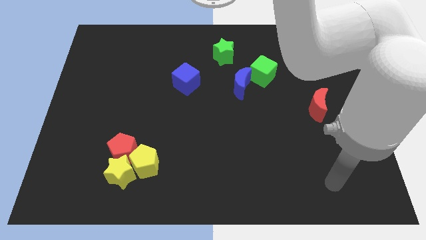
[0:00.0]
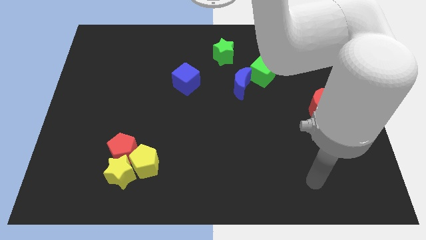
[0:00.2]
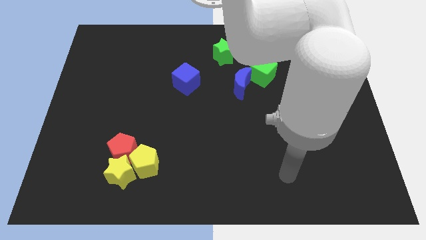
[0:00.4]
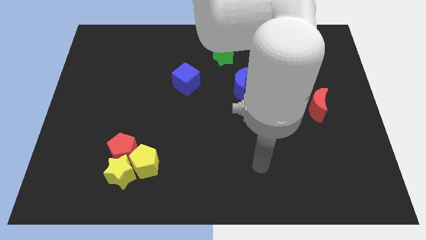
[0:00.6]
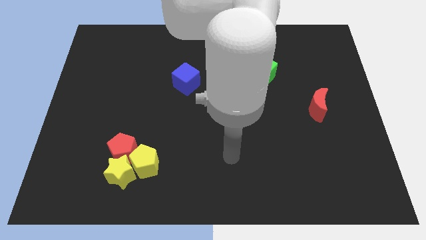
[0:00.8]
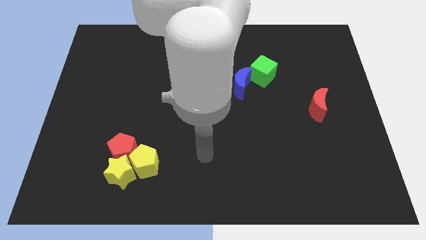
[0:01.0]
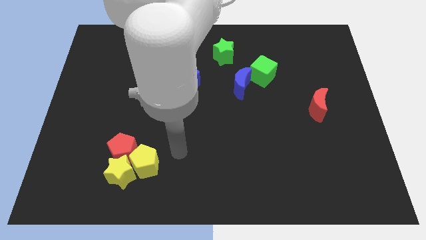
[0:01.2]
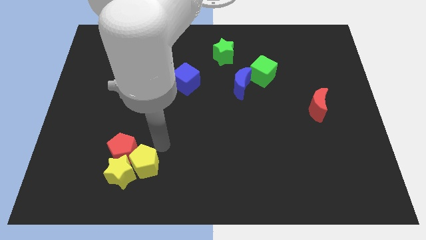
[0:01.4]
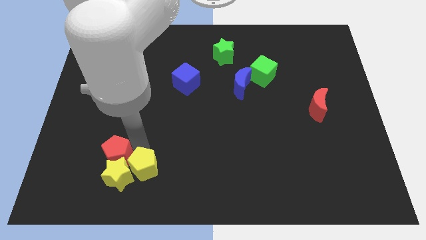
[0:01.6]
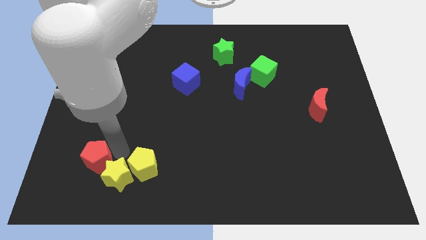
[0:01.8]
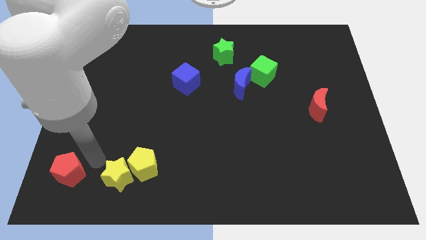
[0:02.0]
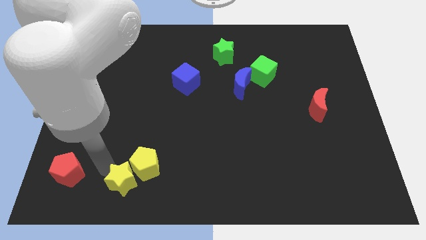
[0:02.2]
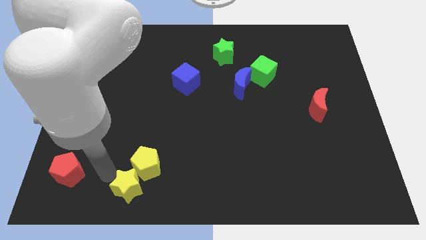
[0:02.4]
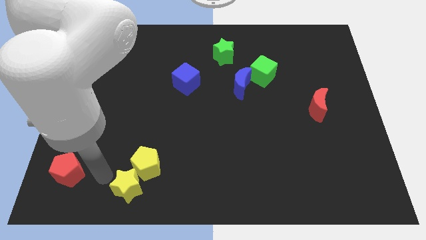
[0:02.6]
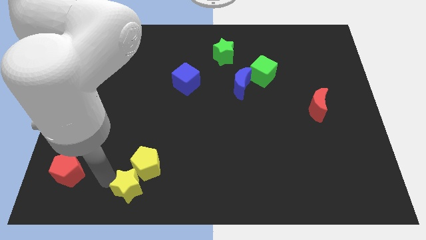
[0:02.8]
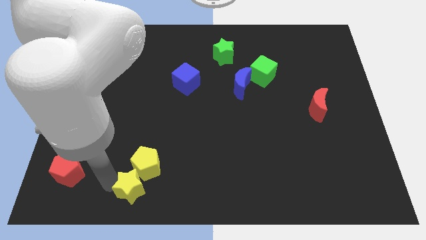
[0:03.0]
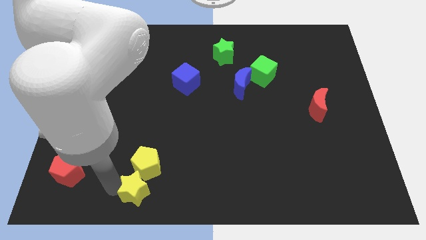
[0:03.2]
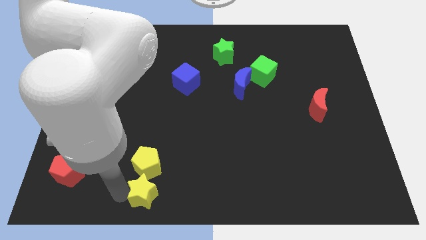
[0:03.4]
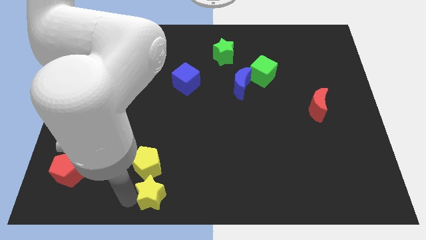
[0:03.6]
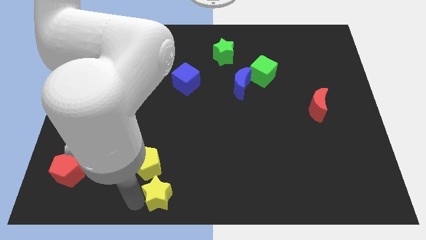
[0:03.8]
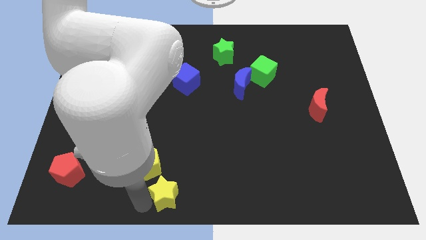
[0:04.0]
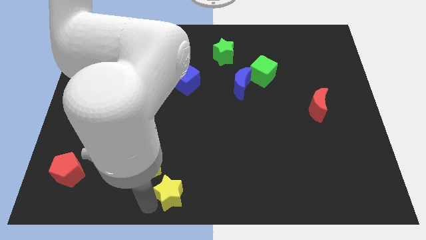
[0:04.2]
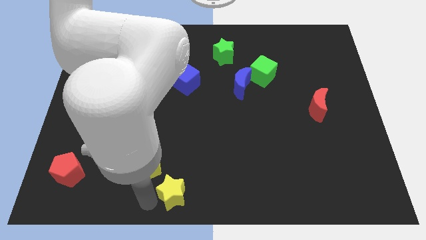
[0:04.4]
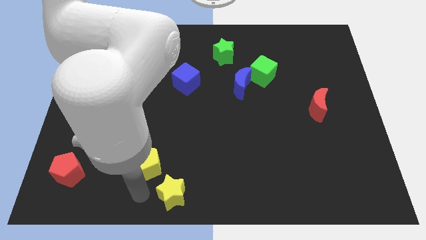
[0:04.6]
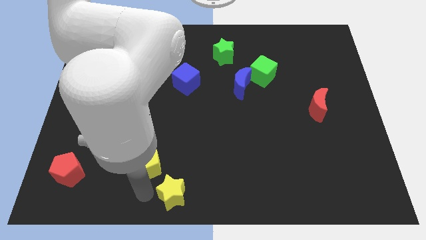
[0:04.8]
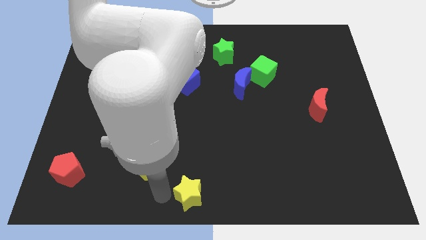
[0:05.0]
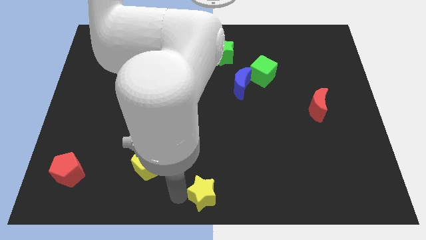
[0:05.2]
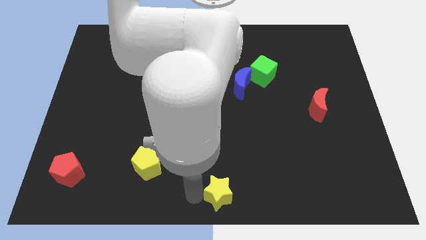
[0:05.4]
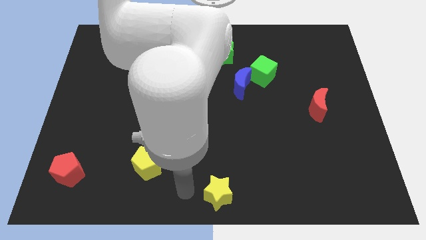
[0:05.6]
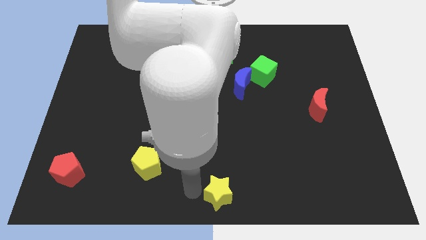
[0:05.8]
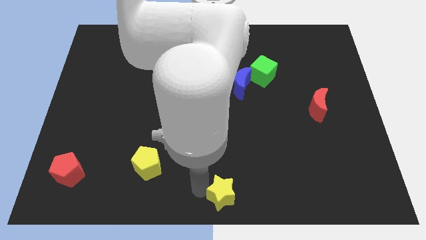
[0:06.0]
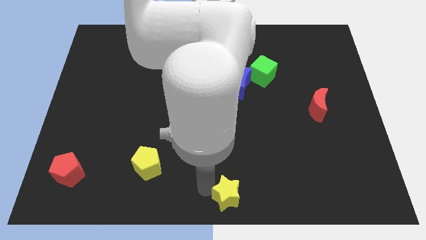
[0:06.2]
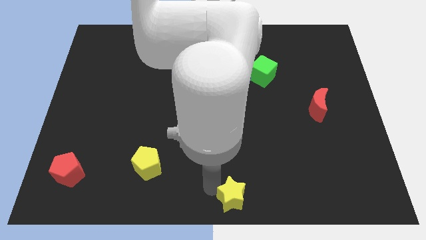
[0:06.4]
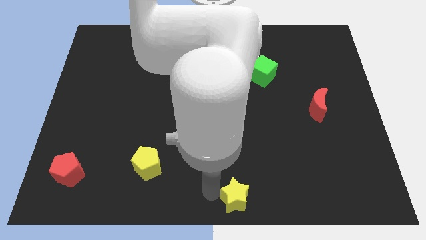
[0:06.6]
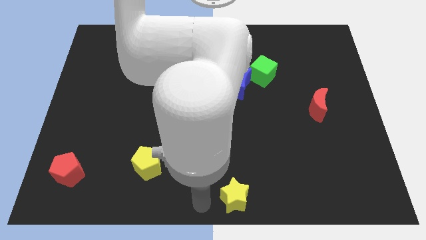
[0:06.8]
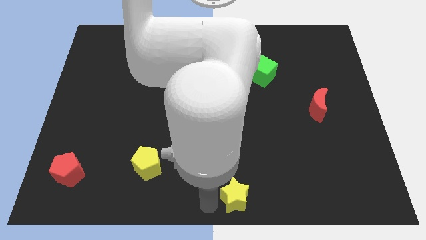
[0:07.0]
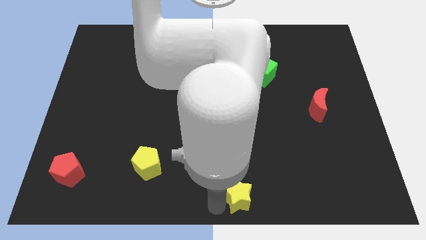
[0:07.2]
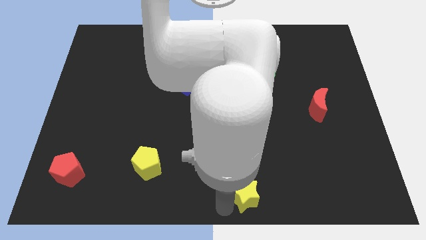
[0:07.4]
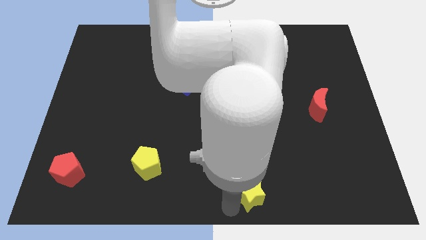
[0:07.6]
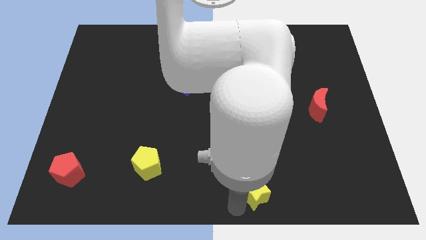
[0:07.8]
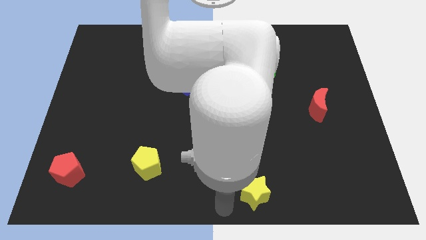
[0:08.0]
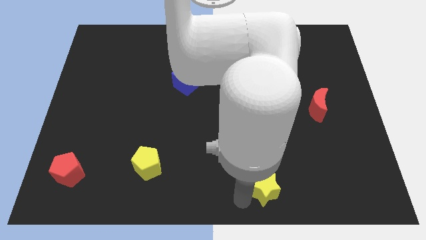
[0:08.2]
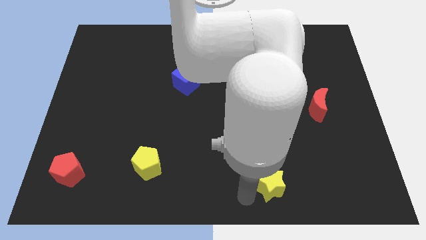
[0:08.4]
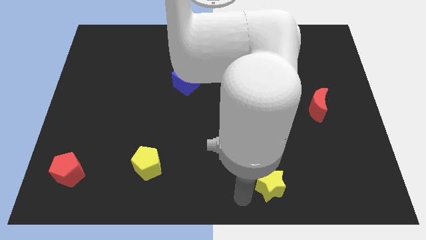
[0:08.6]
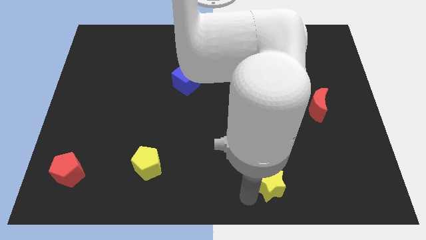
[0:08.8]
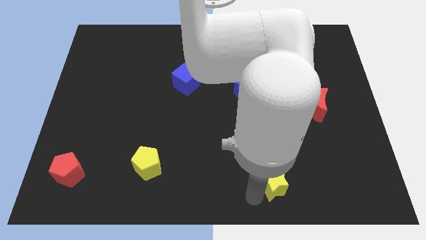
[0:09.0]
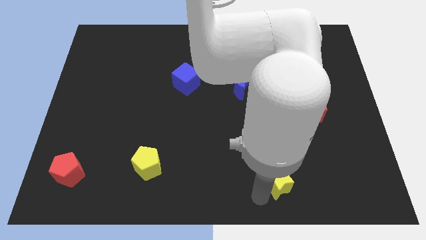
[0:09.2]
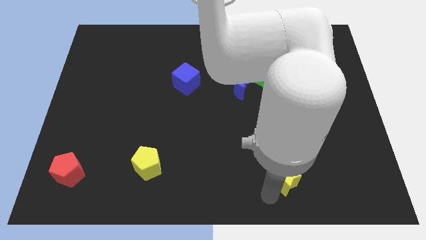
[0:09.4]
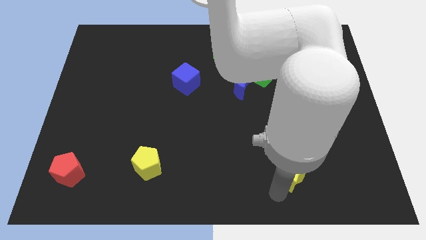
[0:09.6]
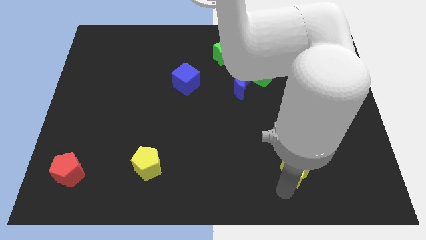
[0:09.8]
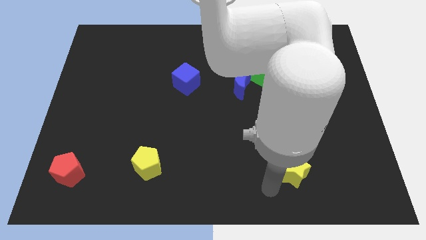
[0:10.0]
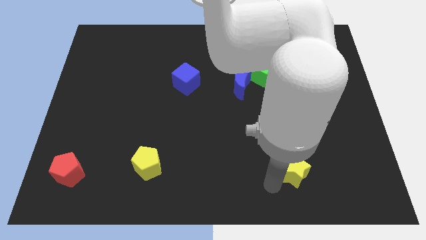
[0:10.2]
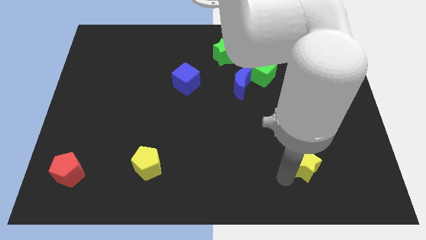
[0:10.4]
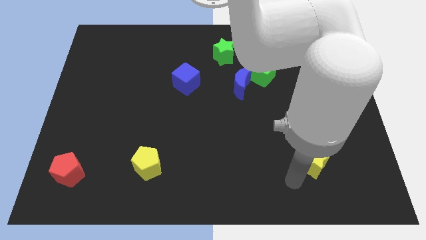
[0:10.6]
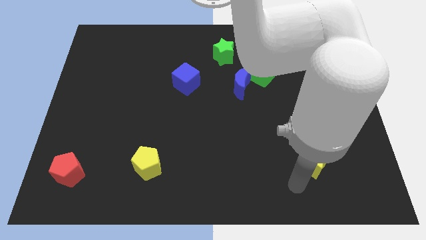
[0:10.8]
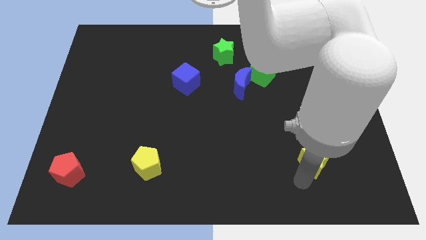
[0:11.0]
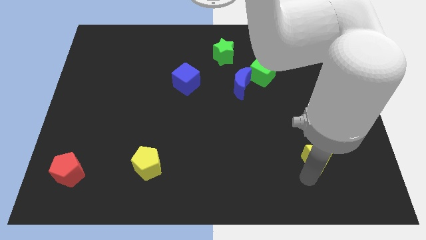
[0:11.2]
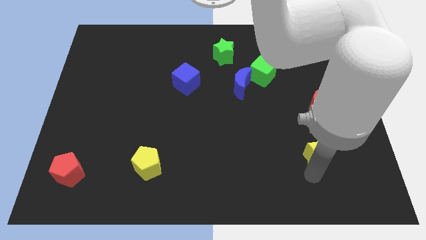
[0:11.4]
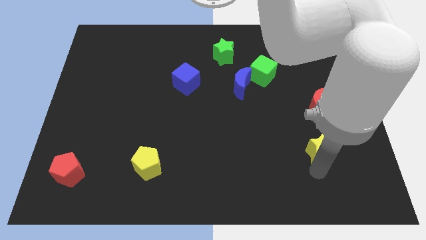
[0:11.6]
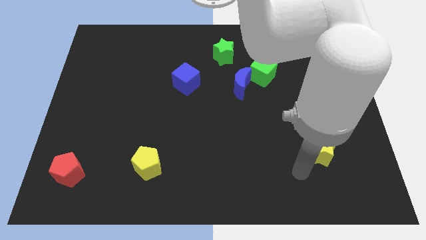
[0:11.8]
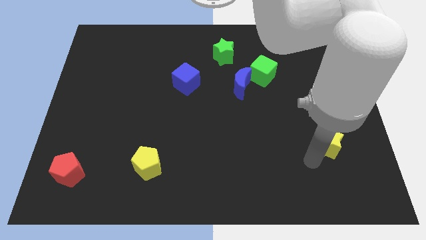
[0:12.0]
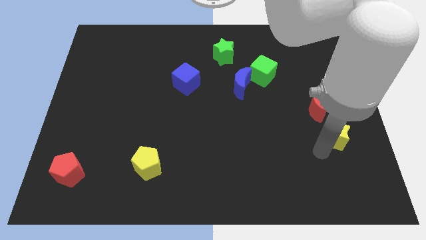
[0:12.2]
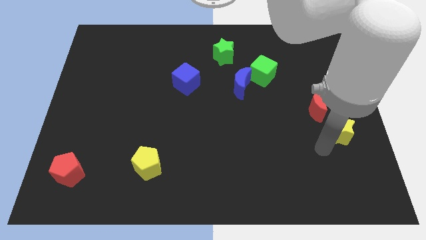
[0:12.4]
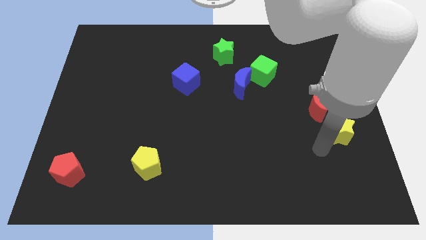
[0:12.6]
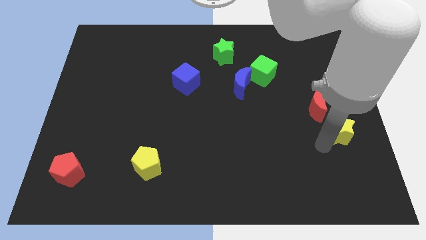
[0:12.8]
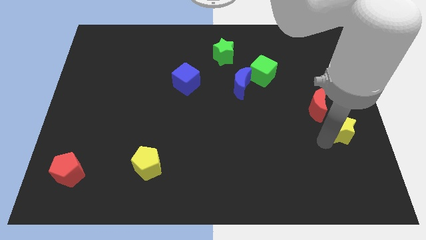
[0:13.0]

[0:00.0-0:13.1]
push the yellow star to the right side of the board

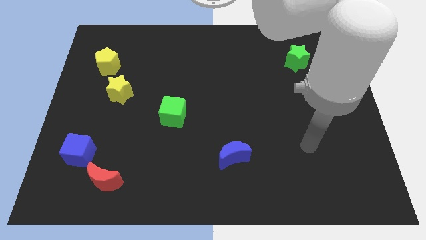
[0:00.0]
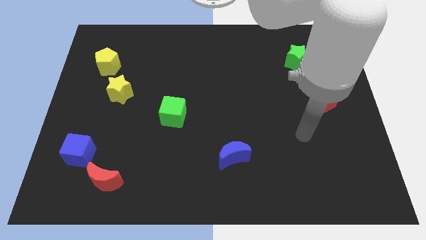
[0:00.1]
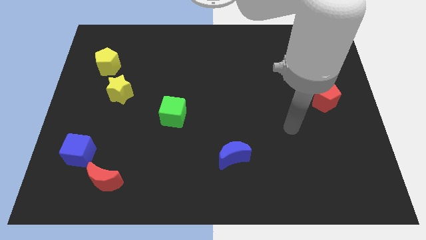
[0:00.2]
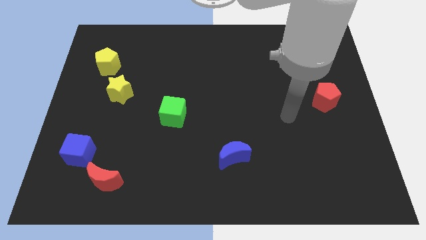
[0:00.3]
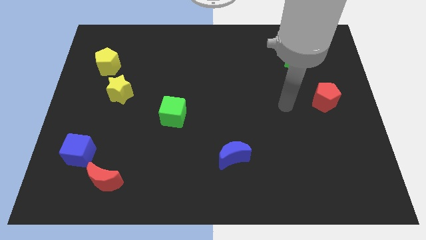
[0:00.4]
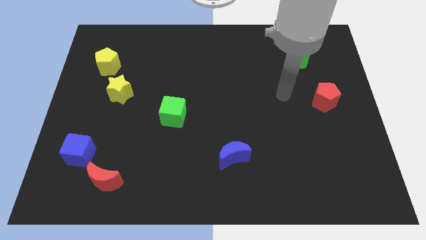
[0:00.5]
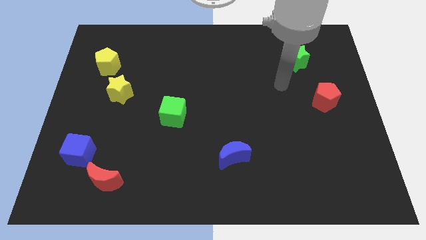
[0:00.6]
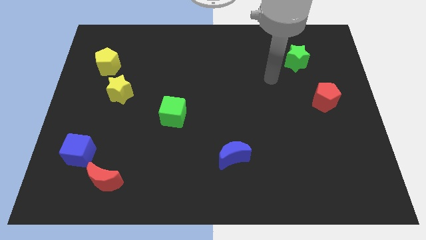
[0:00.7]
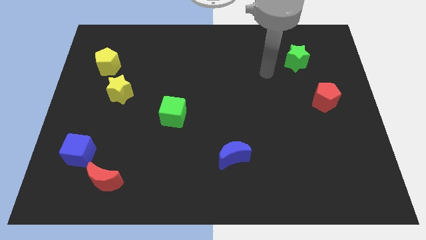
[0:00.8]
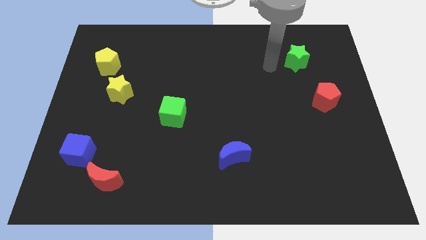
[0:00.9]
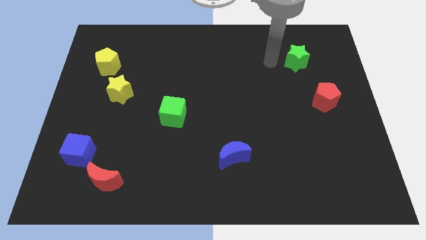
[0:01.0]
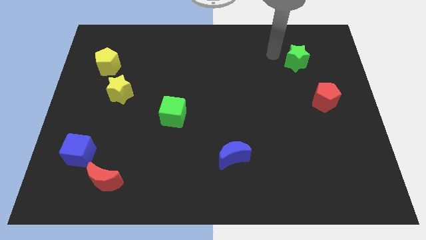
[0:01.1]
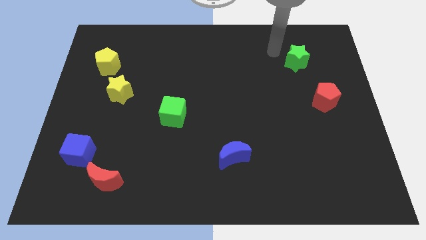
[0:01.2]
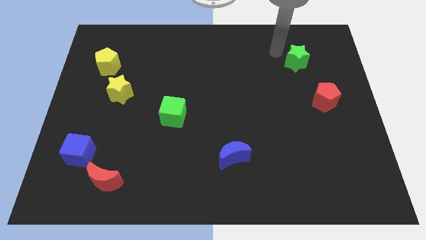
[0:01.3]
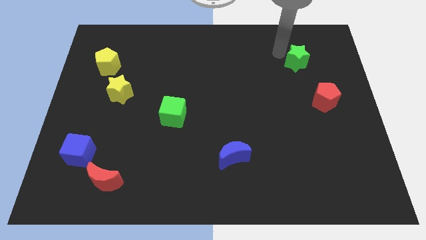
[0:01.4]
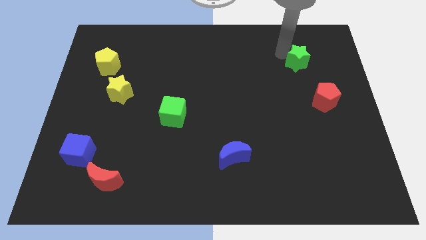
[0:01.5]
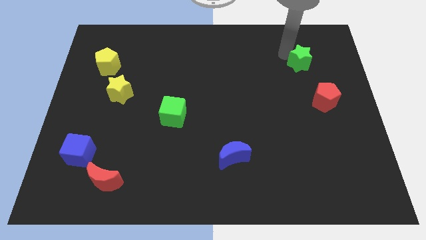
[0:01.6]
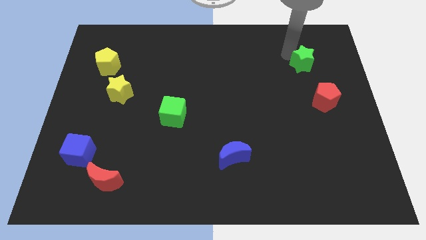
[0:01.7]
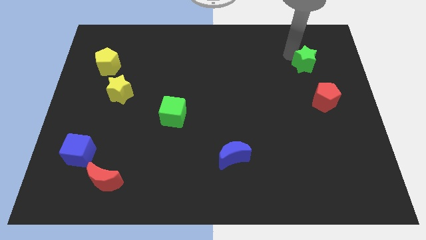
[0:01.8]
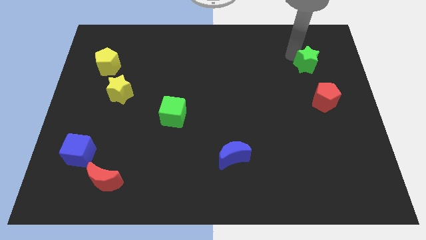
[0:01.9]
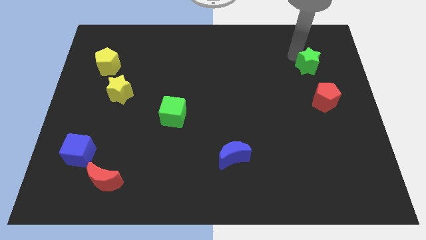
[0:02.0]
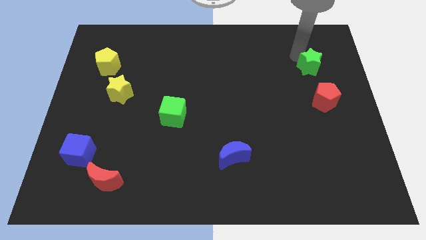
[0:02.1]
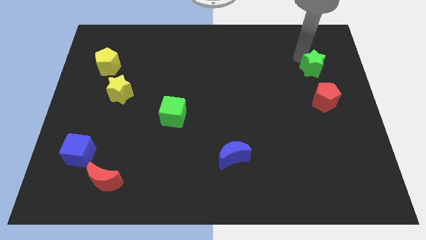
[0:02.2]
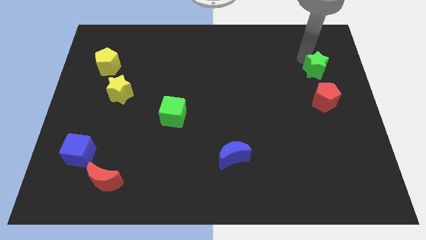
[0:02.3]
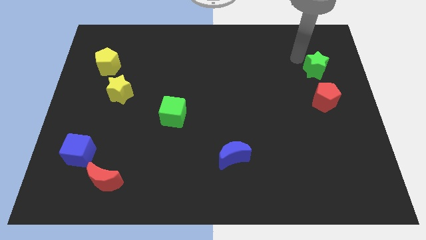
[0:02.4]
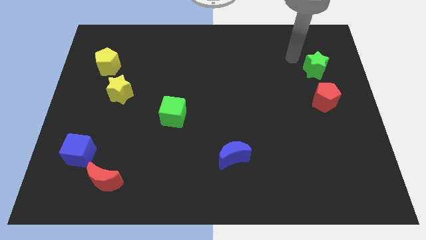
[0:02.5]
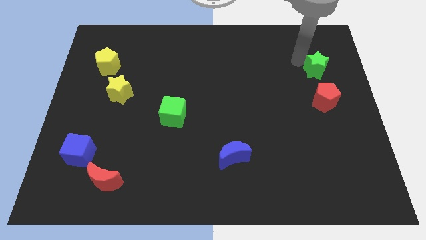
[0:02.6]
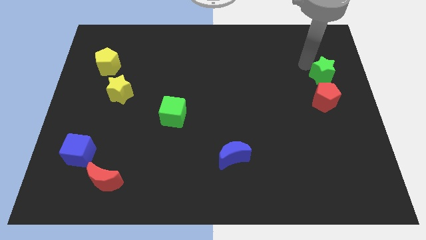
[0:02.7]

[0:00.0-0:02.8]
put the green star to the center right
